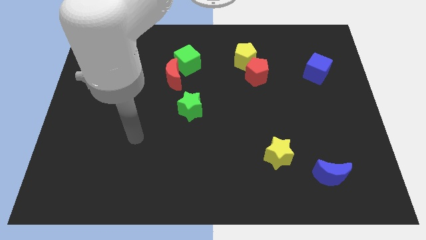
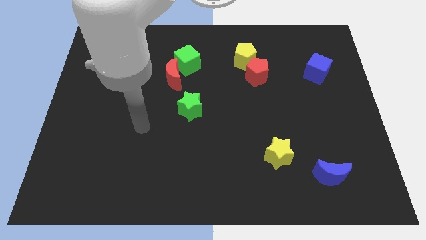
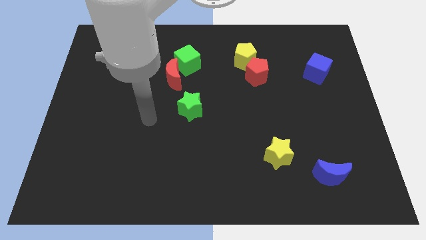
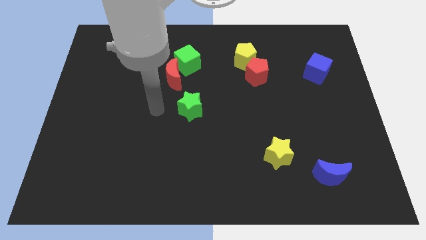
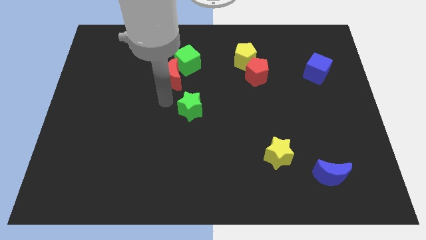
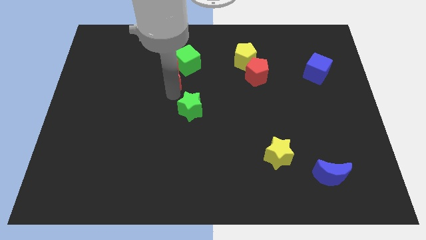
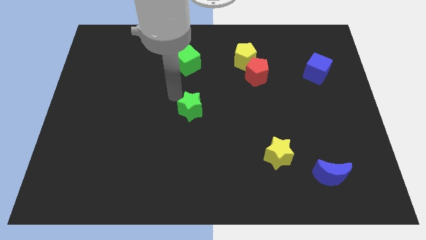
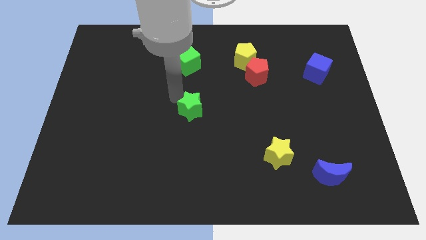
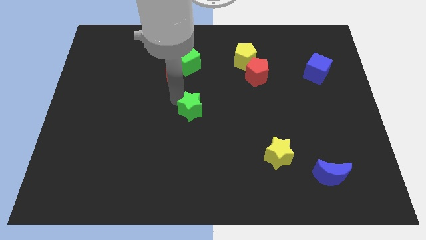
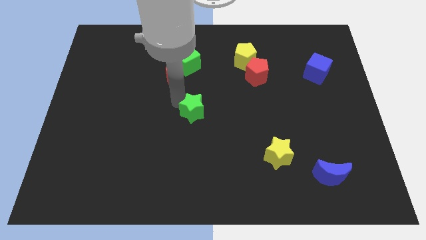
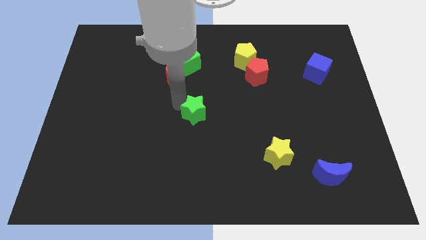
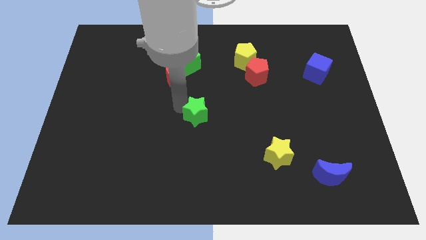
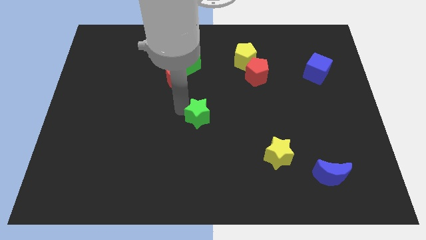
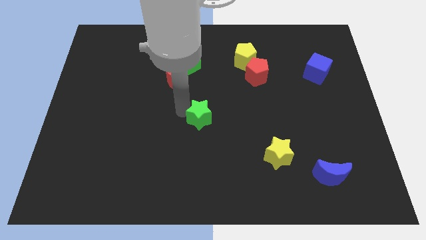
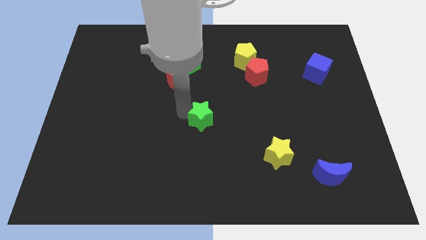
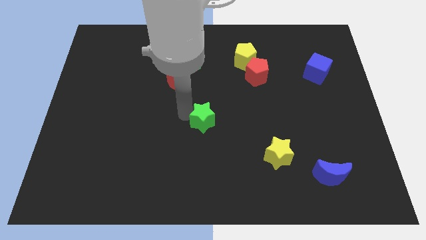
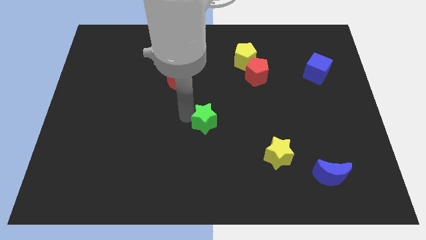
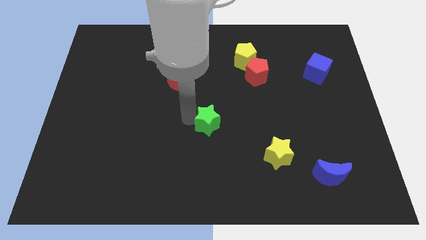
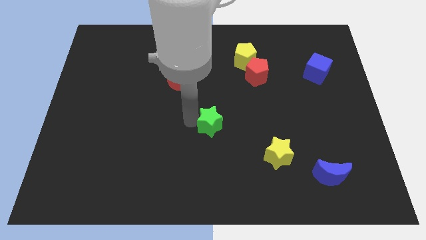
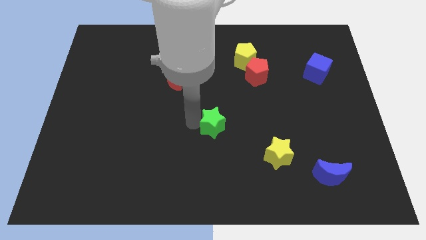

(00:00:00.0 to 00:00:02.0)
push the green star a bit downwards and right diagonally

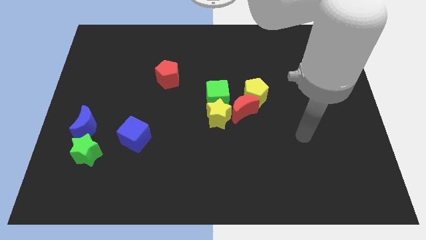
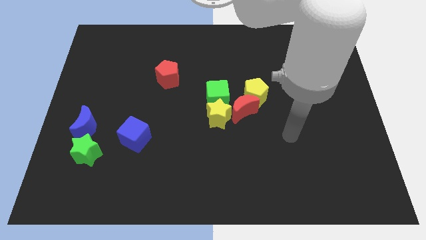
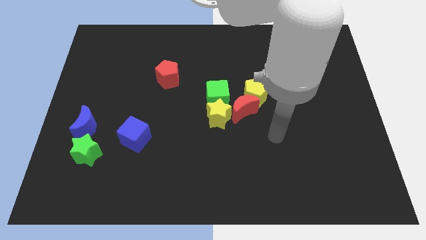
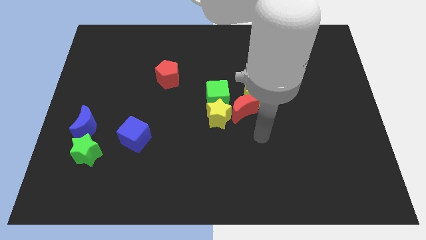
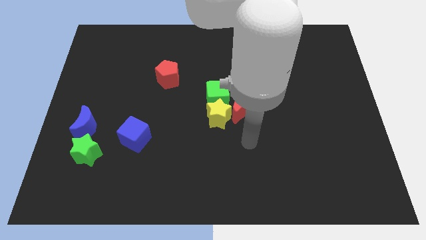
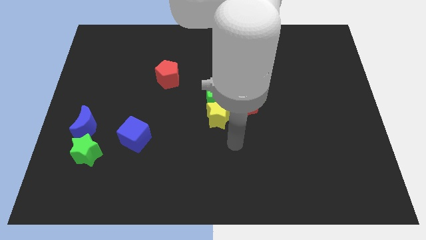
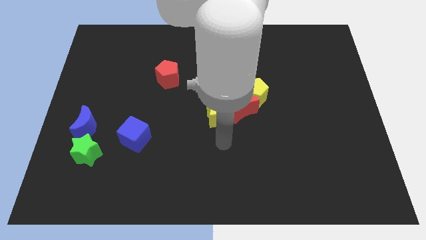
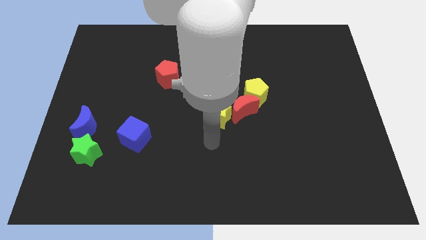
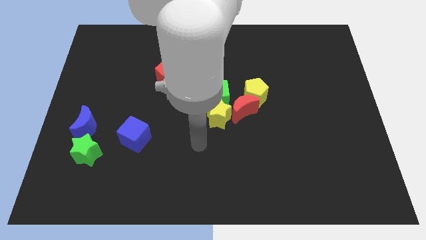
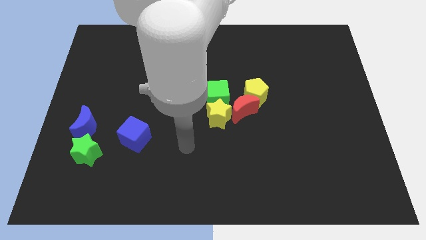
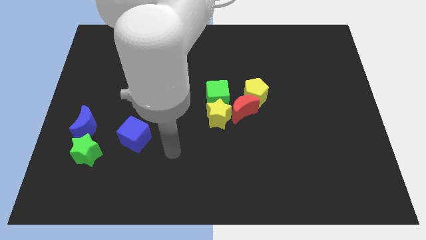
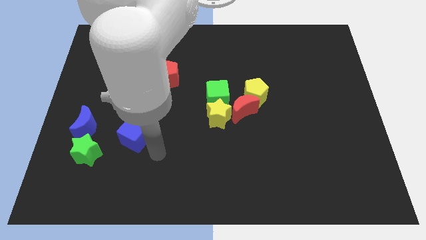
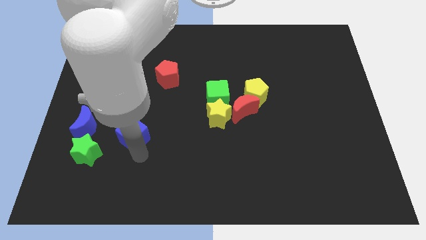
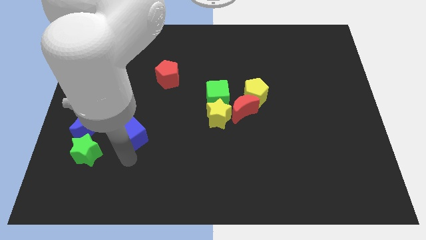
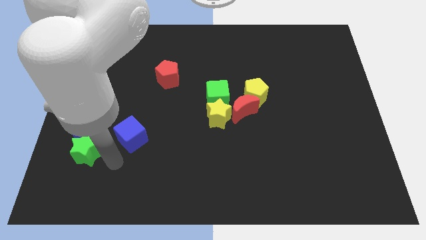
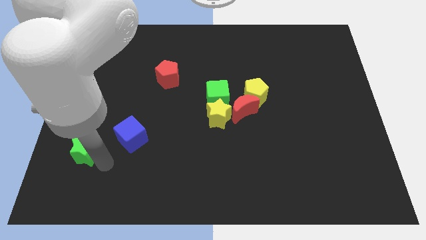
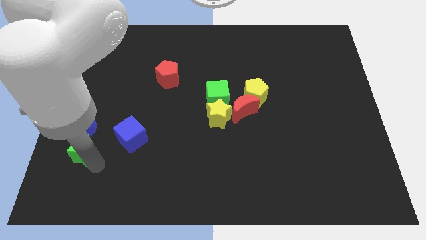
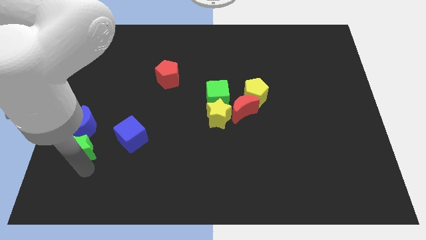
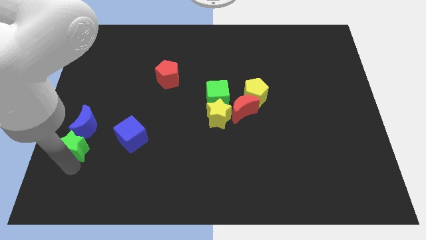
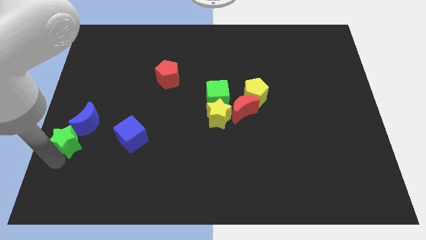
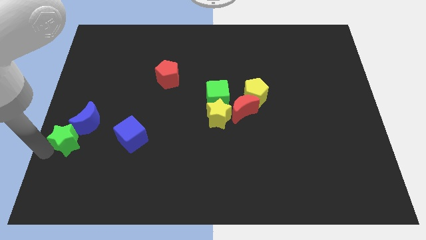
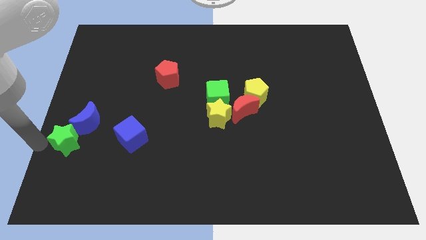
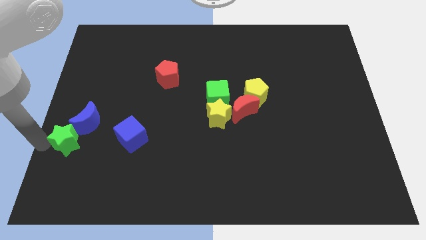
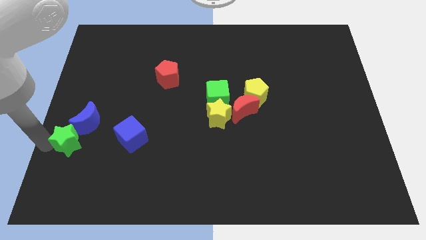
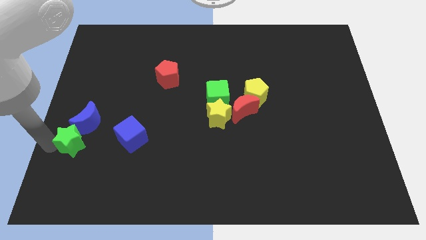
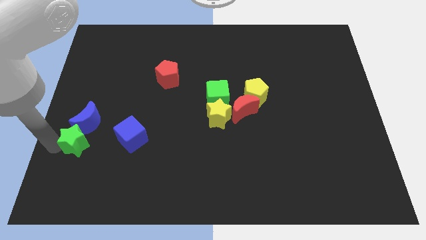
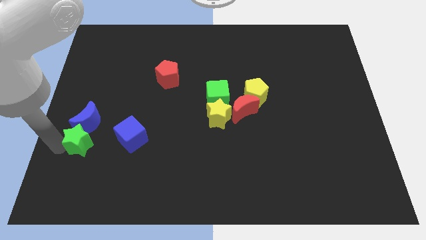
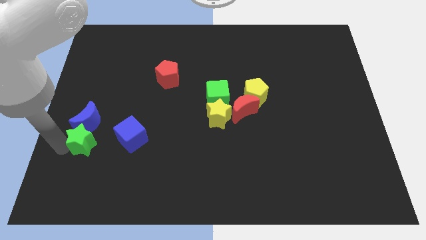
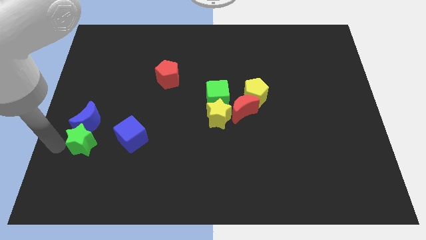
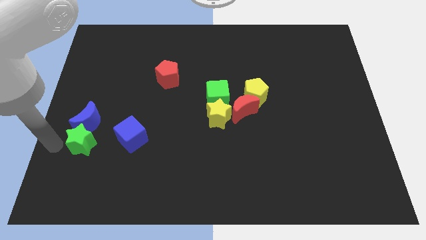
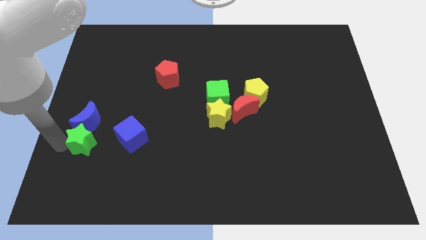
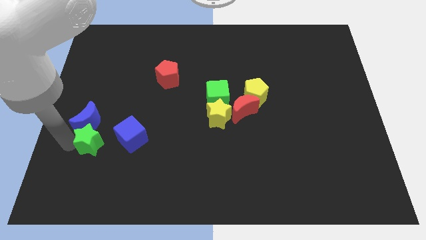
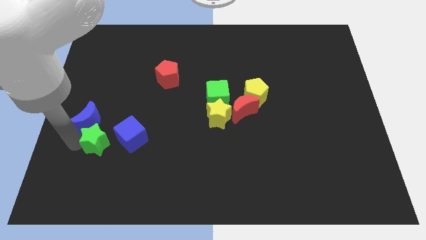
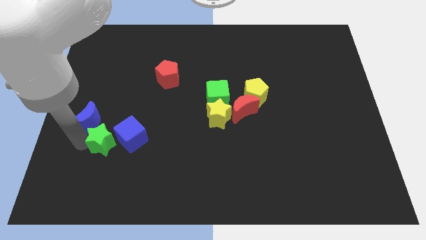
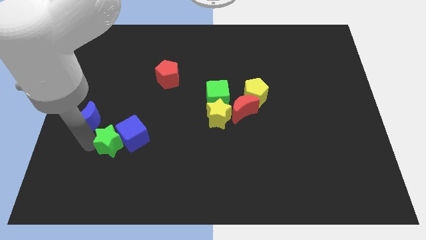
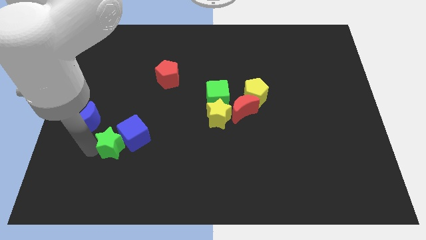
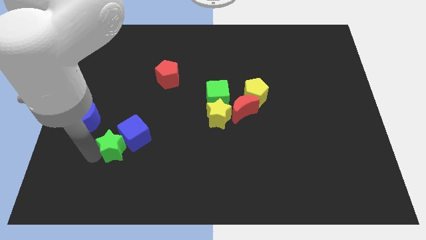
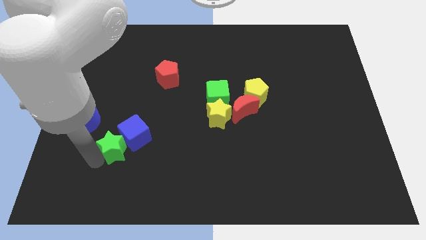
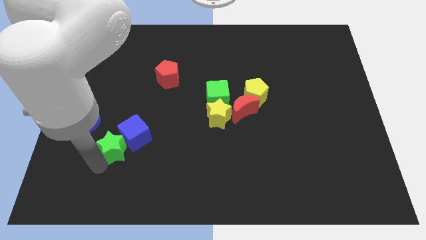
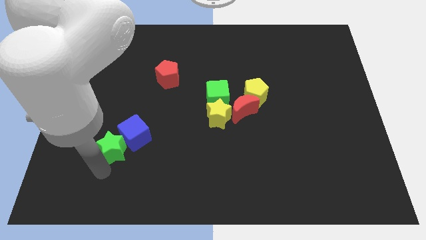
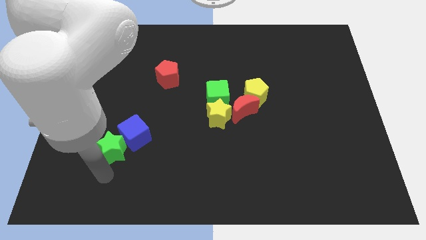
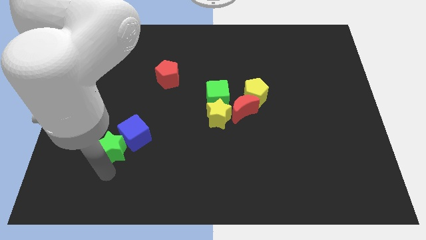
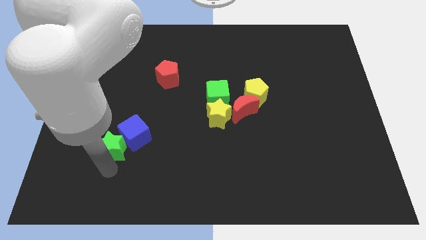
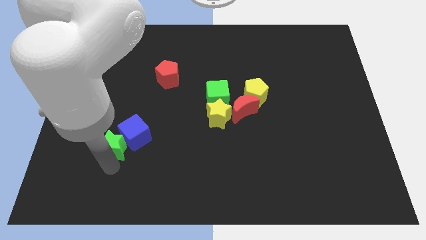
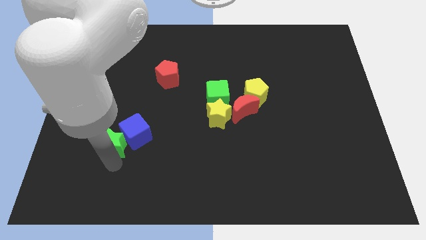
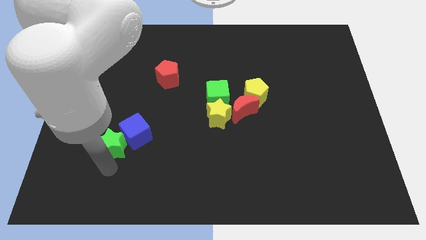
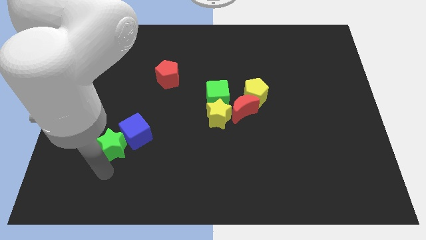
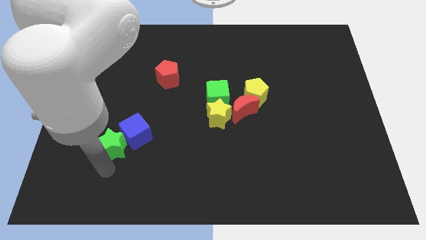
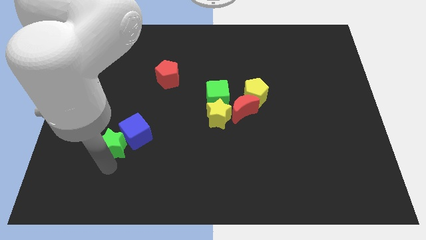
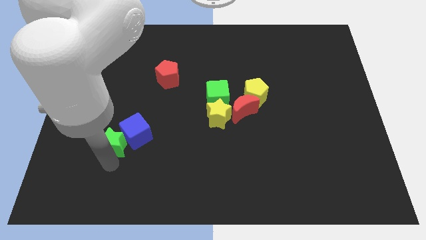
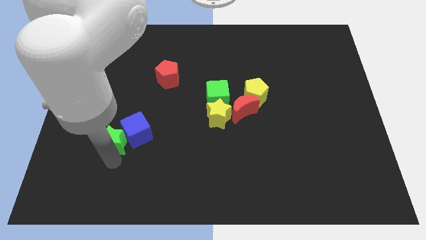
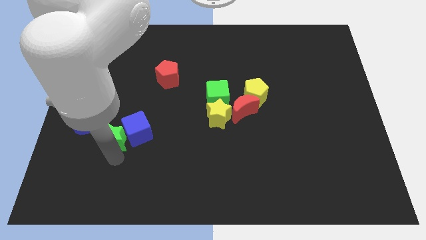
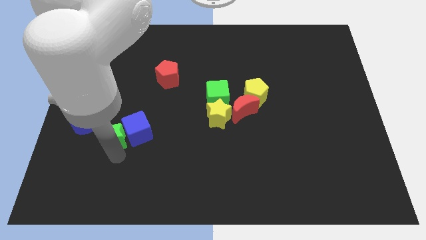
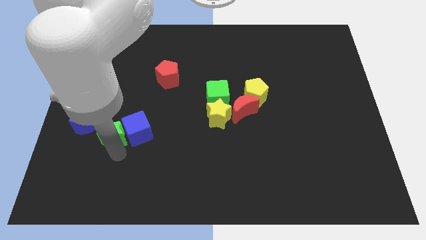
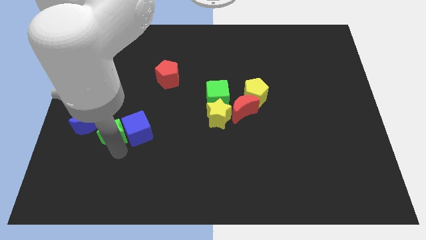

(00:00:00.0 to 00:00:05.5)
slightly move the green star upwards and to the right

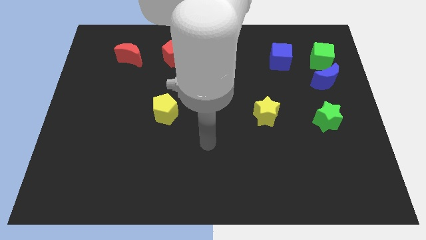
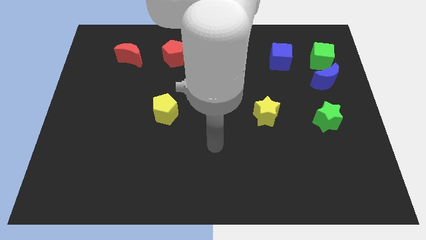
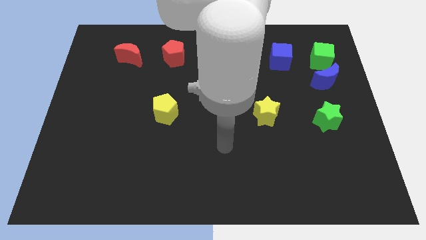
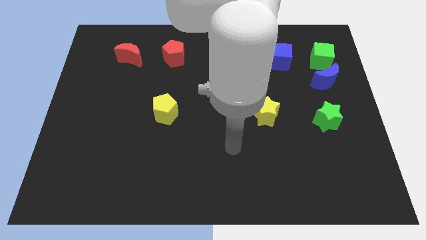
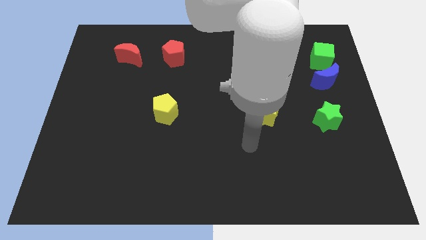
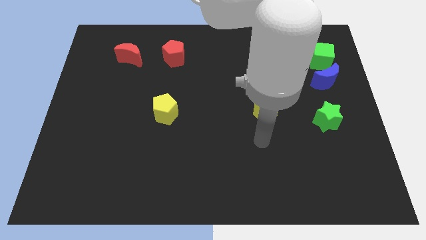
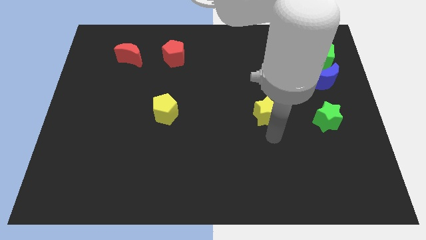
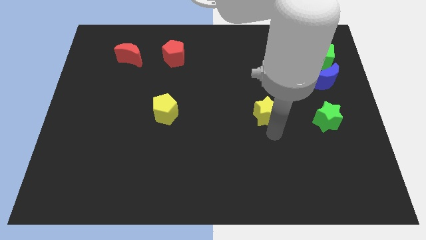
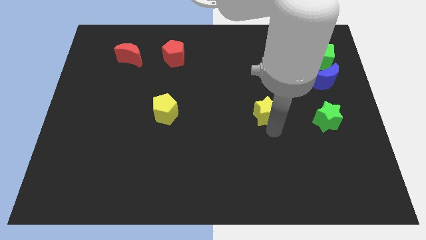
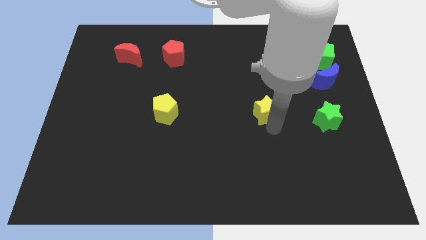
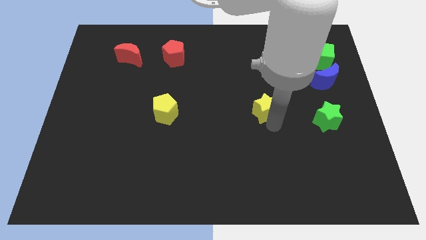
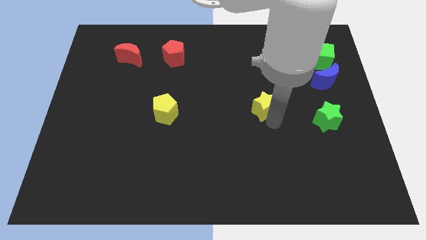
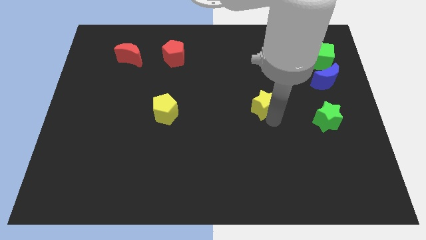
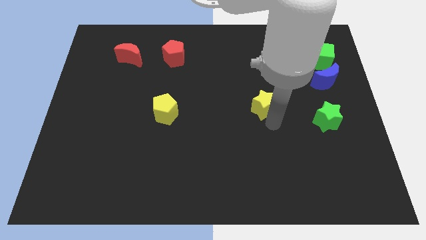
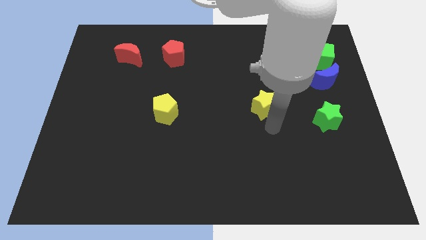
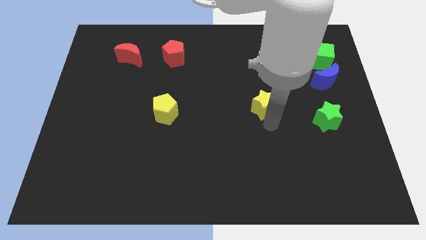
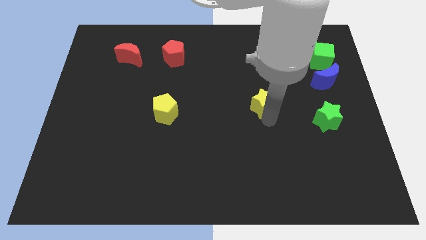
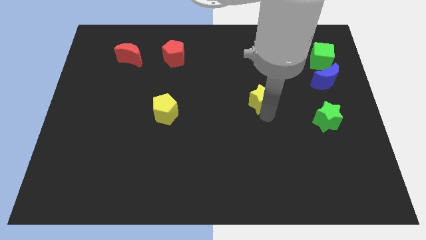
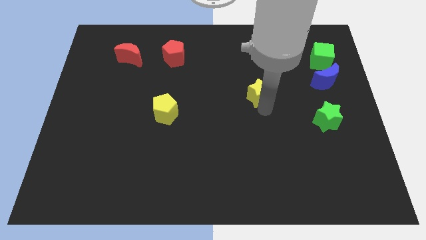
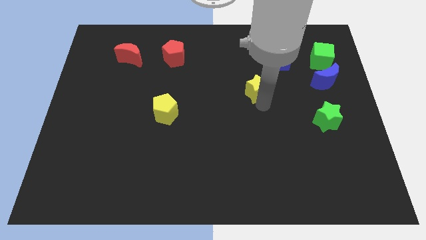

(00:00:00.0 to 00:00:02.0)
push the yellow star a little bit upwards
